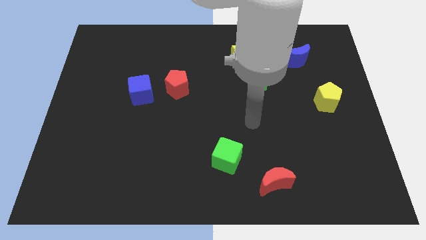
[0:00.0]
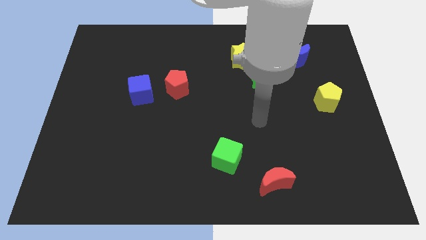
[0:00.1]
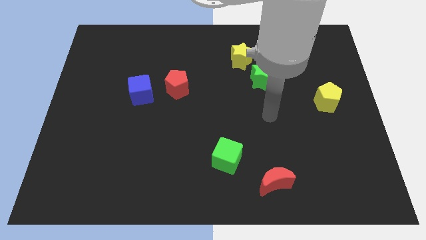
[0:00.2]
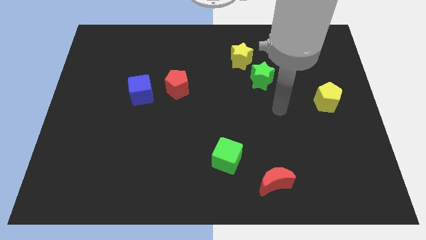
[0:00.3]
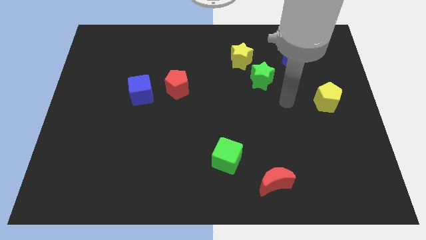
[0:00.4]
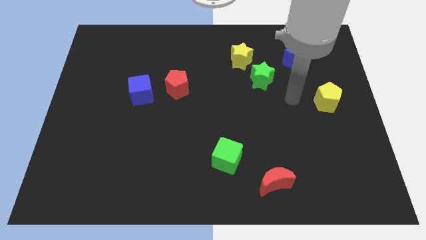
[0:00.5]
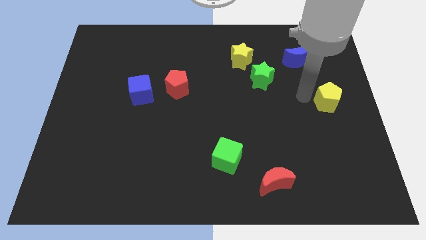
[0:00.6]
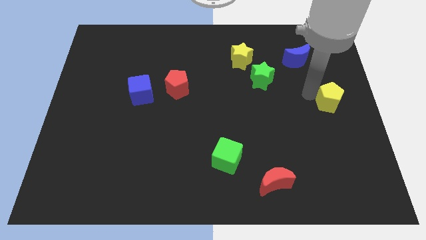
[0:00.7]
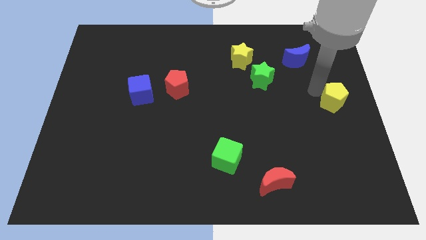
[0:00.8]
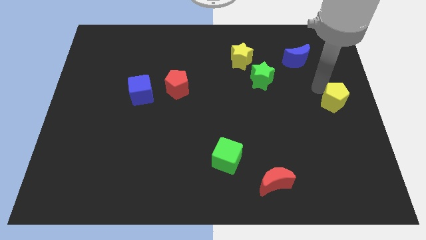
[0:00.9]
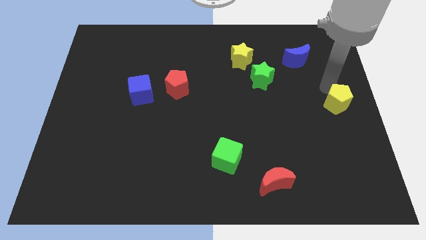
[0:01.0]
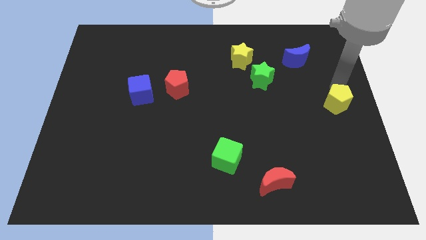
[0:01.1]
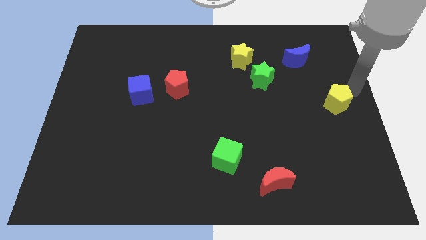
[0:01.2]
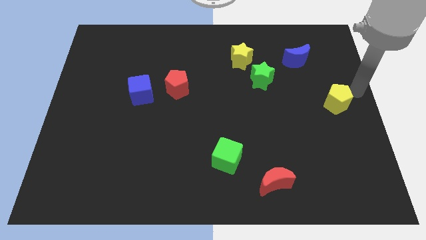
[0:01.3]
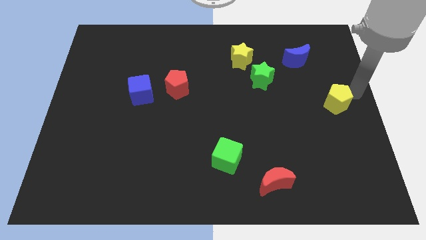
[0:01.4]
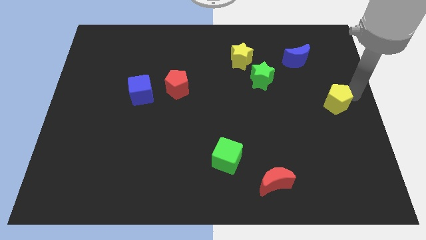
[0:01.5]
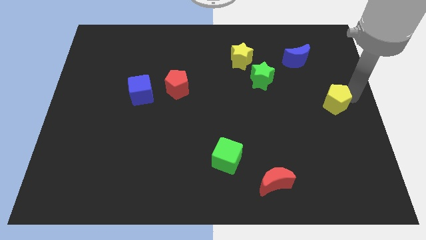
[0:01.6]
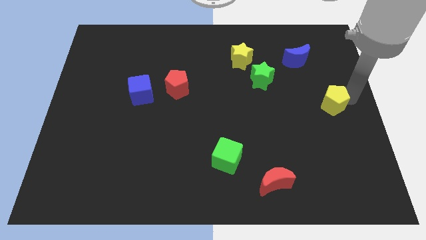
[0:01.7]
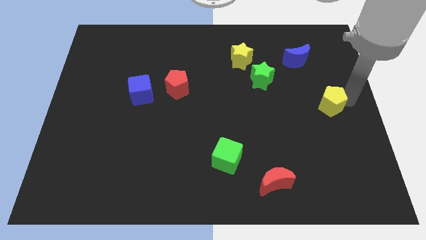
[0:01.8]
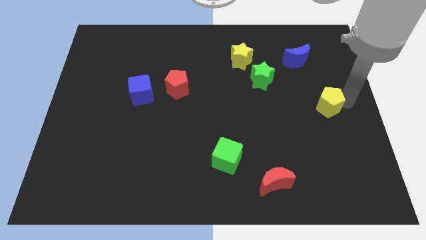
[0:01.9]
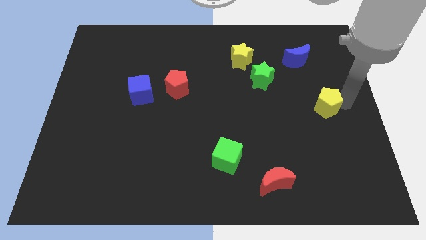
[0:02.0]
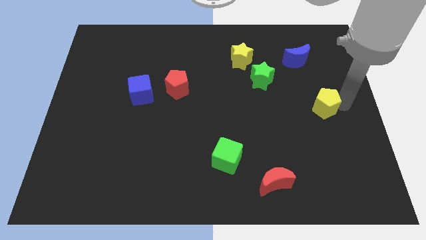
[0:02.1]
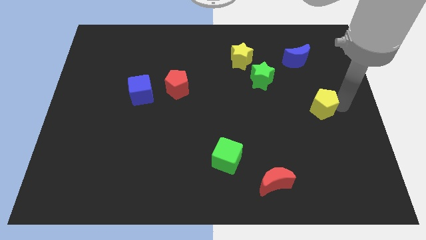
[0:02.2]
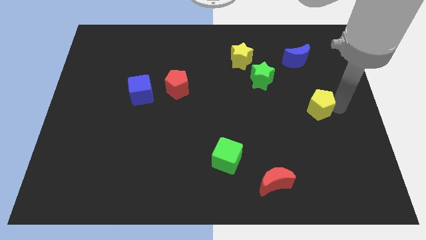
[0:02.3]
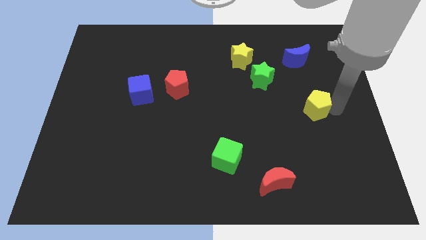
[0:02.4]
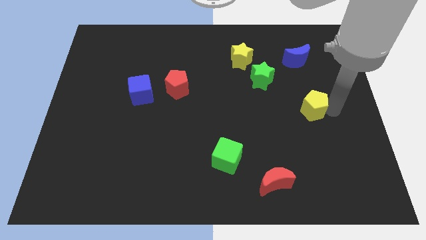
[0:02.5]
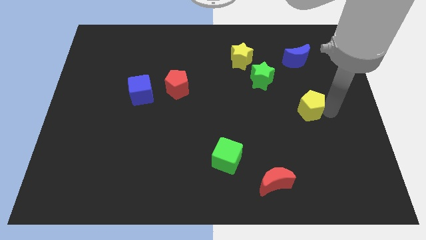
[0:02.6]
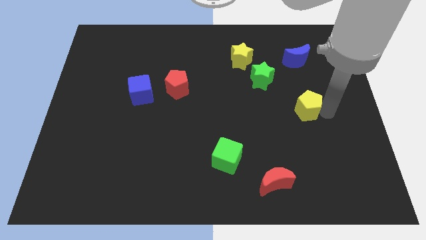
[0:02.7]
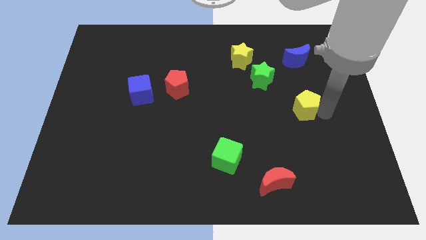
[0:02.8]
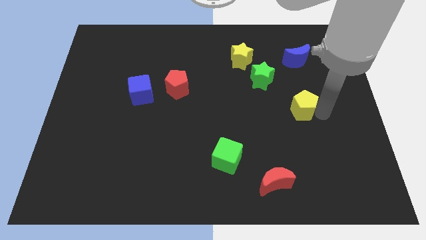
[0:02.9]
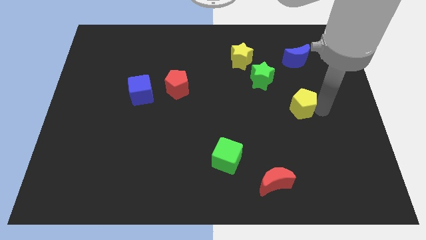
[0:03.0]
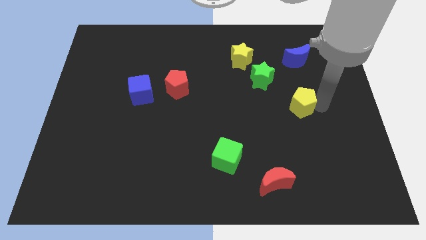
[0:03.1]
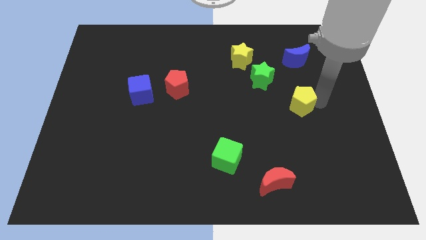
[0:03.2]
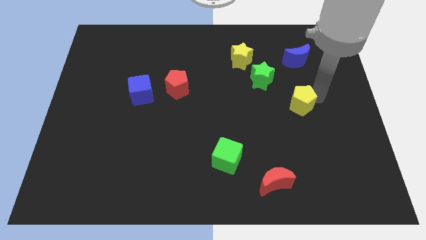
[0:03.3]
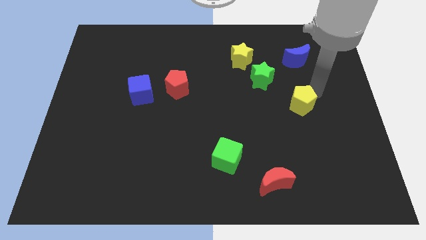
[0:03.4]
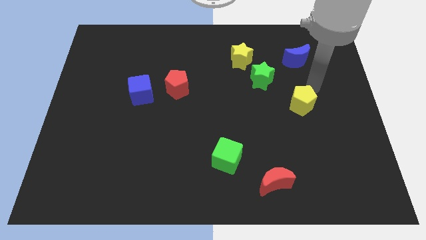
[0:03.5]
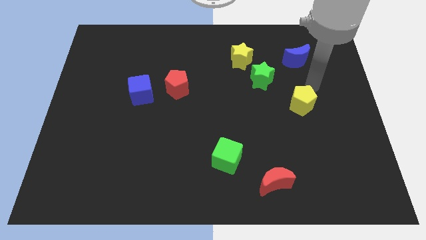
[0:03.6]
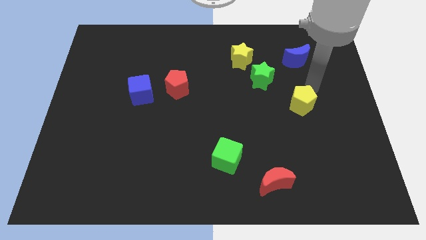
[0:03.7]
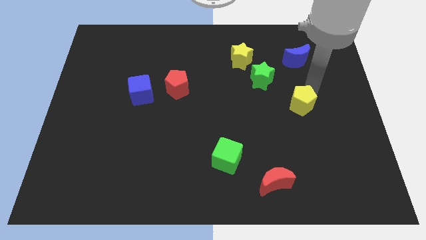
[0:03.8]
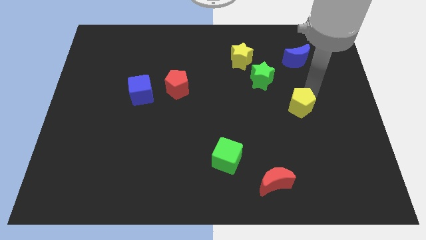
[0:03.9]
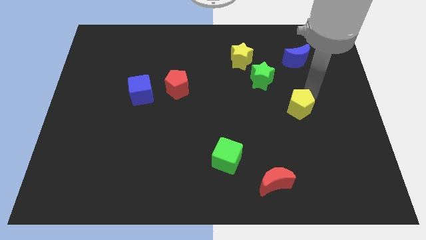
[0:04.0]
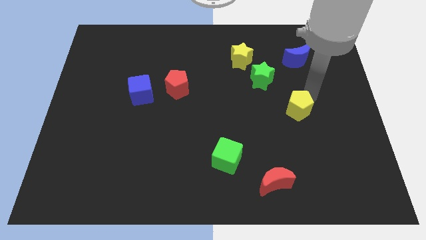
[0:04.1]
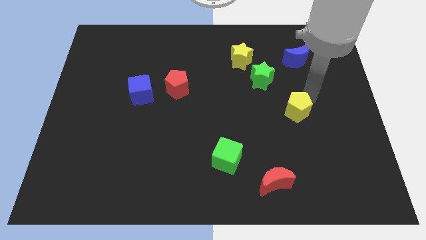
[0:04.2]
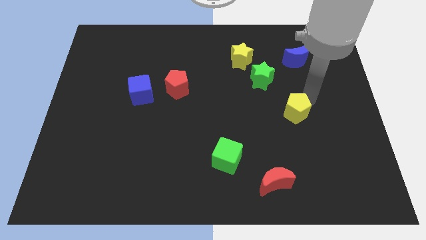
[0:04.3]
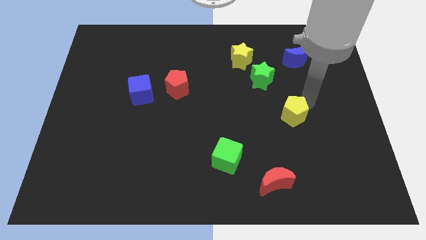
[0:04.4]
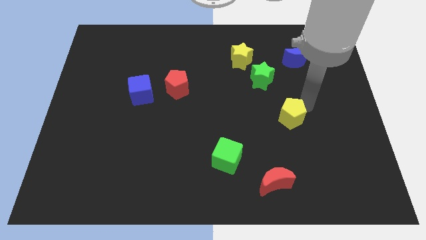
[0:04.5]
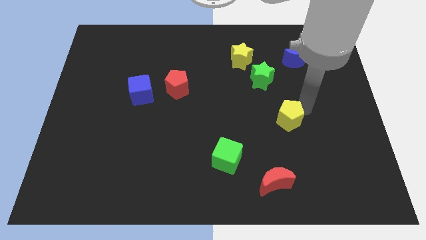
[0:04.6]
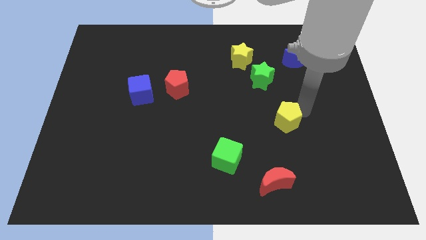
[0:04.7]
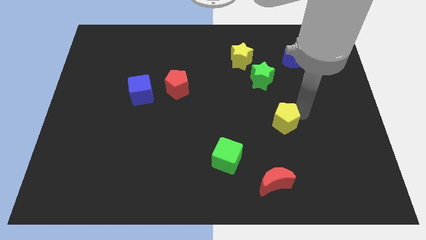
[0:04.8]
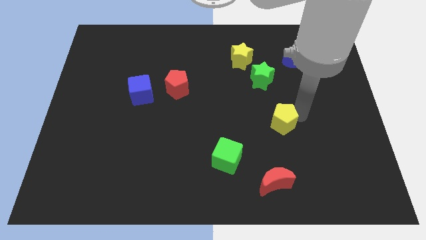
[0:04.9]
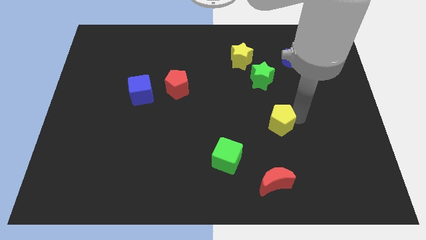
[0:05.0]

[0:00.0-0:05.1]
slide the yellow pentagon above the red moon

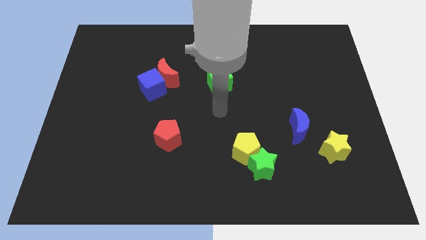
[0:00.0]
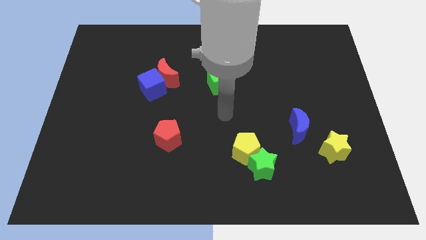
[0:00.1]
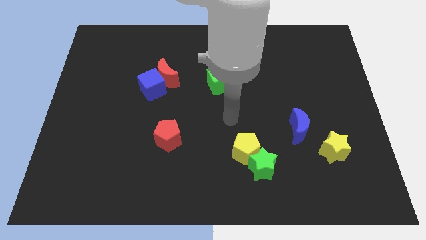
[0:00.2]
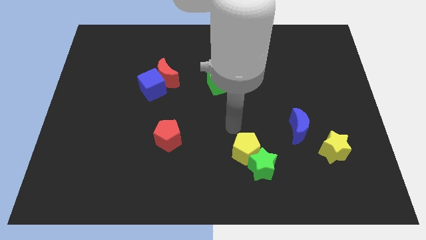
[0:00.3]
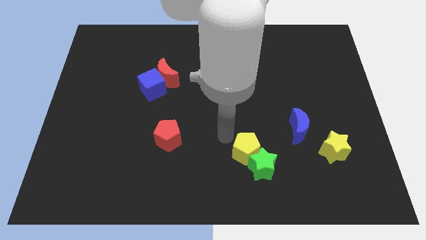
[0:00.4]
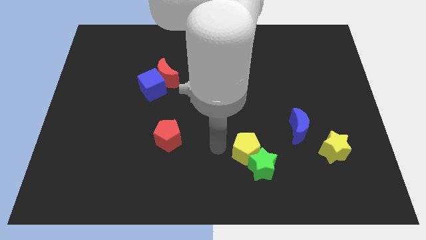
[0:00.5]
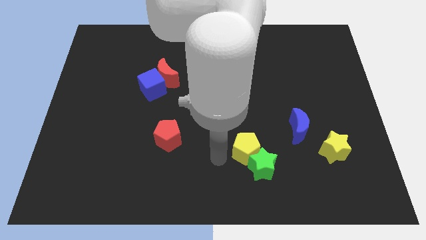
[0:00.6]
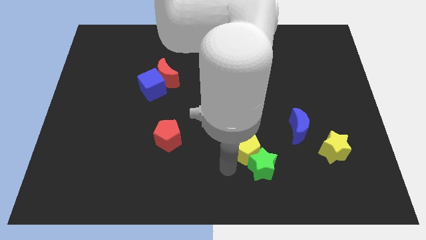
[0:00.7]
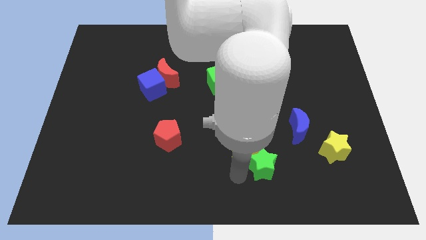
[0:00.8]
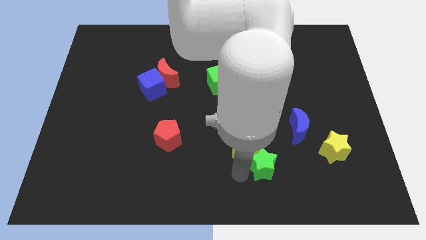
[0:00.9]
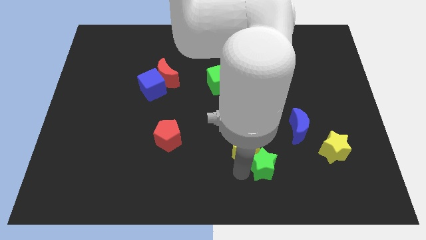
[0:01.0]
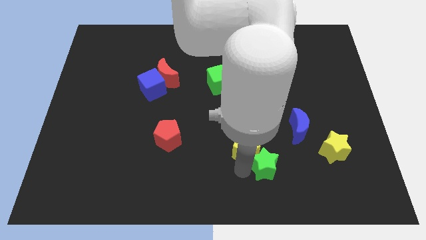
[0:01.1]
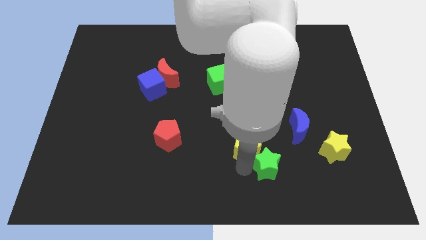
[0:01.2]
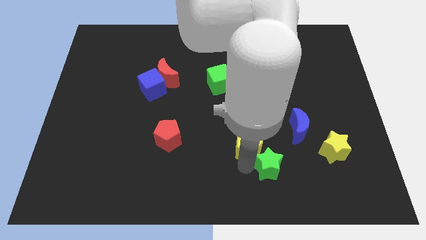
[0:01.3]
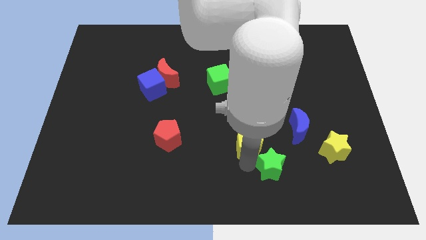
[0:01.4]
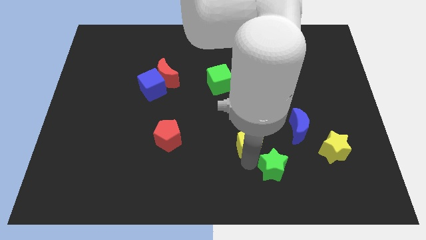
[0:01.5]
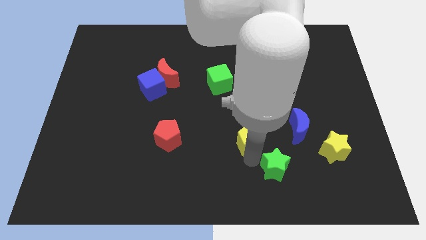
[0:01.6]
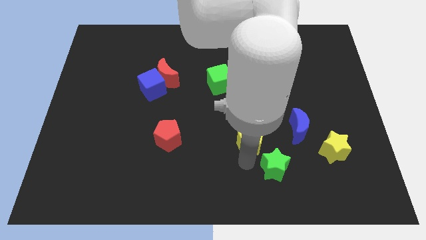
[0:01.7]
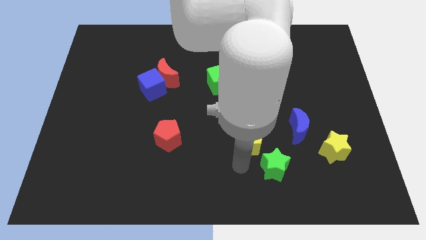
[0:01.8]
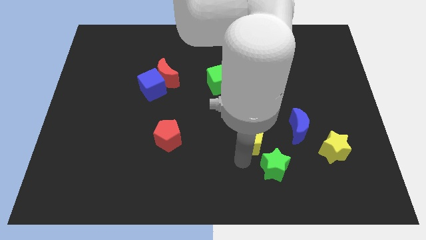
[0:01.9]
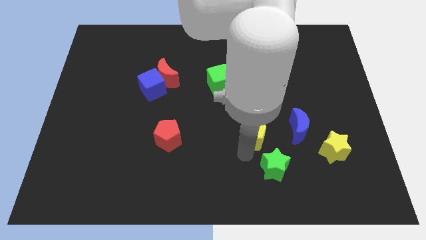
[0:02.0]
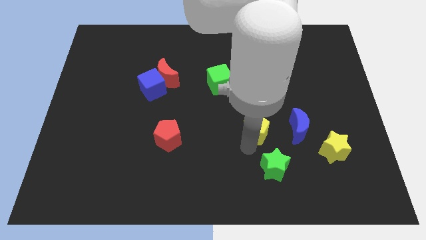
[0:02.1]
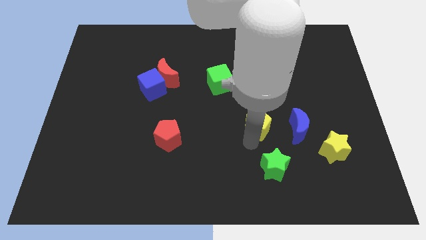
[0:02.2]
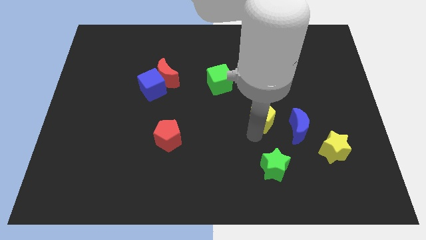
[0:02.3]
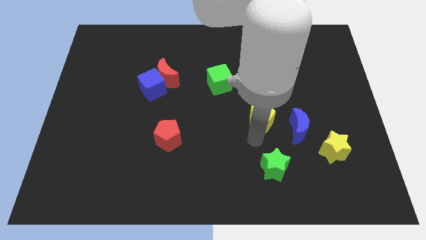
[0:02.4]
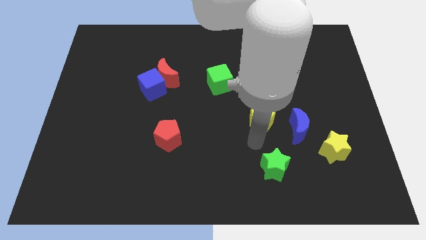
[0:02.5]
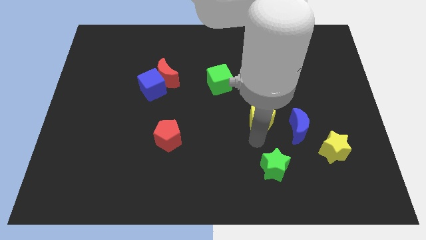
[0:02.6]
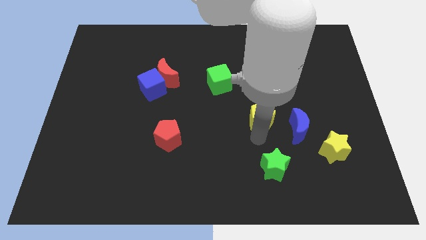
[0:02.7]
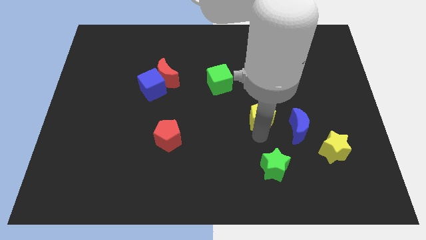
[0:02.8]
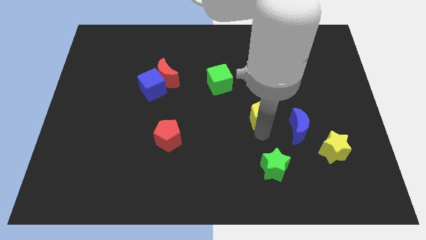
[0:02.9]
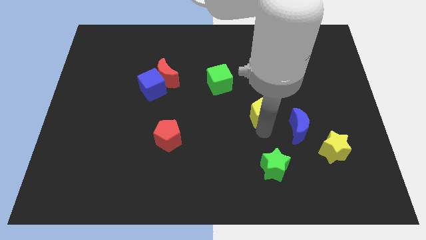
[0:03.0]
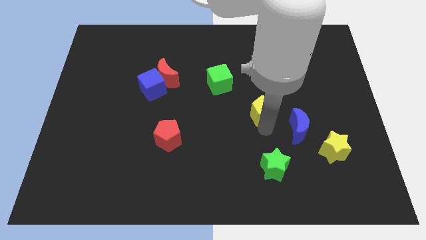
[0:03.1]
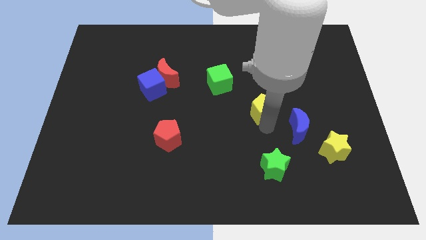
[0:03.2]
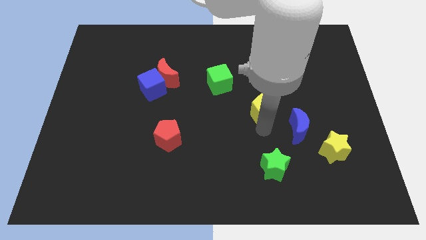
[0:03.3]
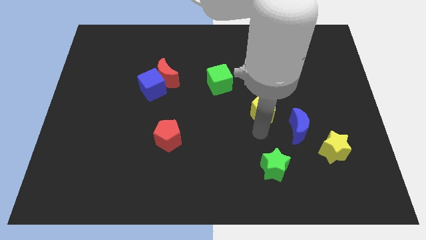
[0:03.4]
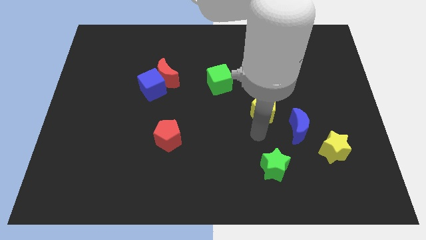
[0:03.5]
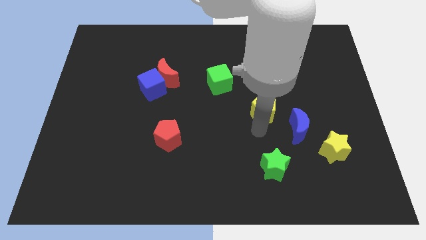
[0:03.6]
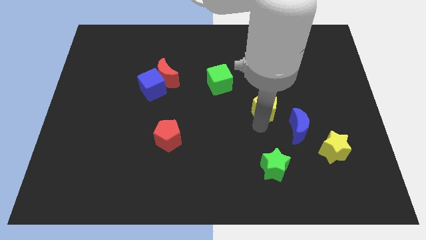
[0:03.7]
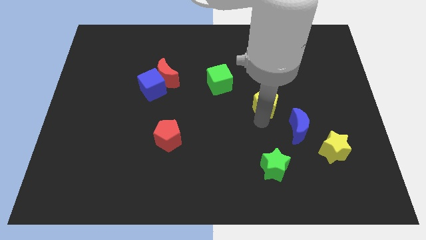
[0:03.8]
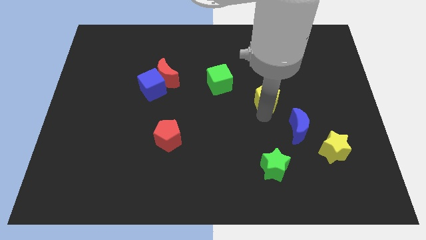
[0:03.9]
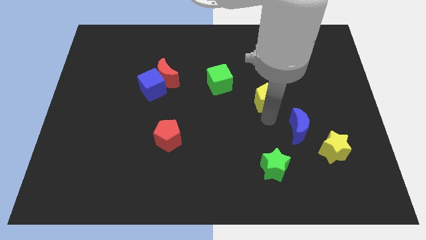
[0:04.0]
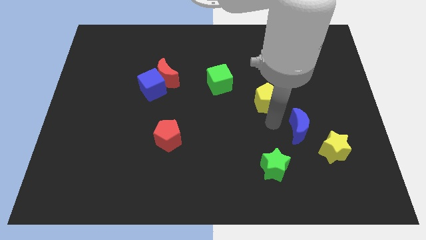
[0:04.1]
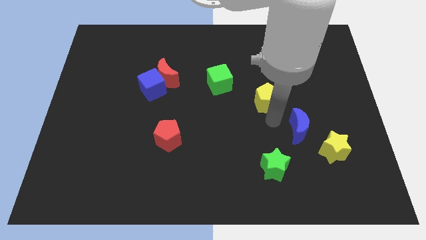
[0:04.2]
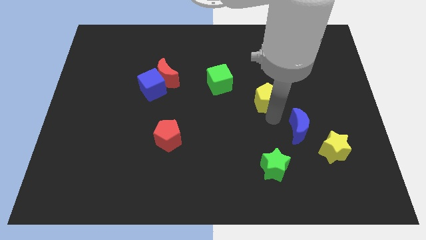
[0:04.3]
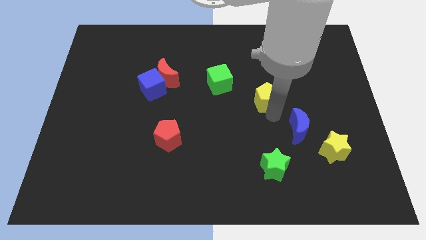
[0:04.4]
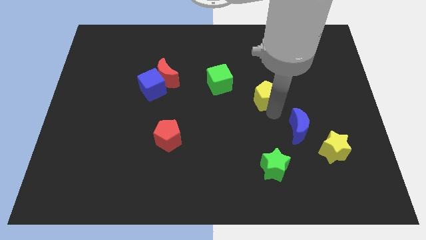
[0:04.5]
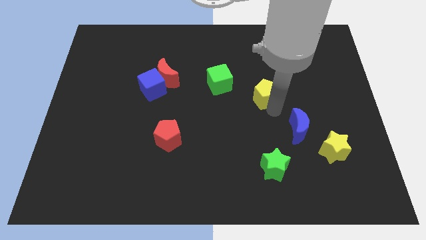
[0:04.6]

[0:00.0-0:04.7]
push the yellow pentagon to the right side of the green cube
